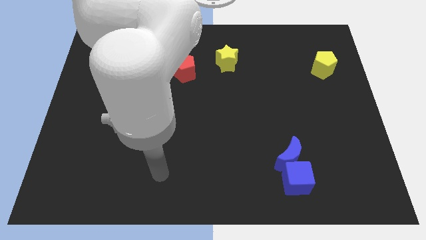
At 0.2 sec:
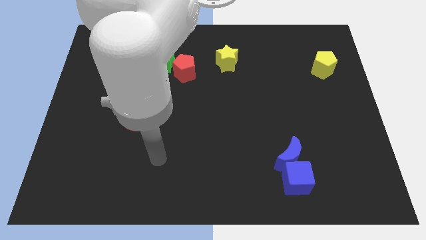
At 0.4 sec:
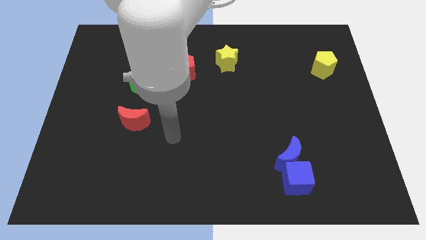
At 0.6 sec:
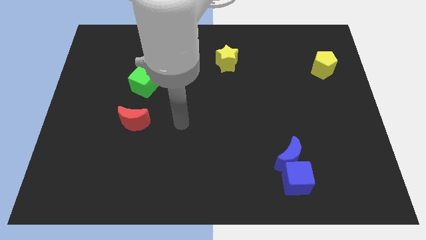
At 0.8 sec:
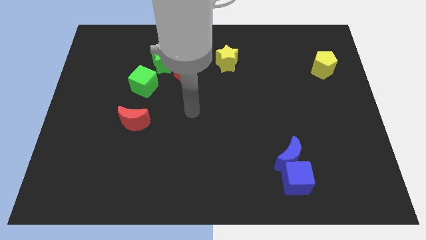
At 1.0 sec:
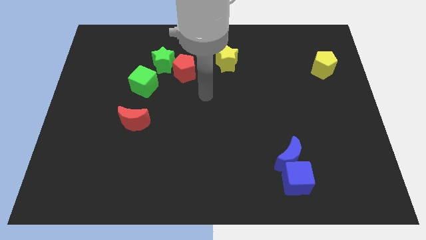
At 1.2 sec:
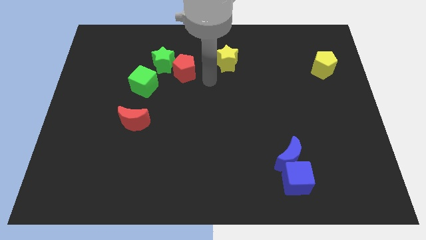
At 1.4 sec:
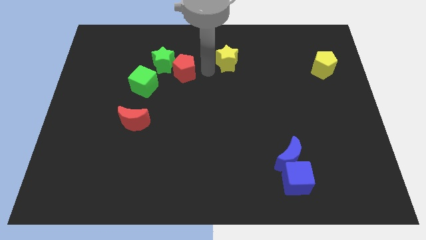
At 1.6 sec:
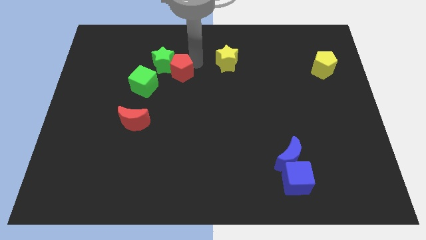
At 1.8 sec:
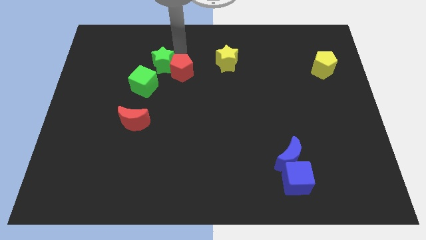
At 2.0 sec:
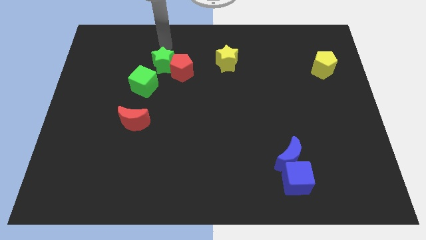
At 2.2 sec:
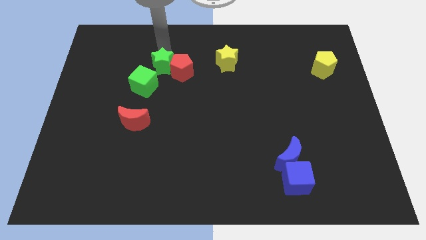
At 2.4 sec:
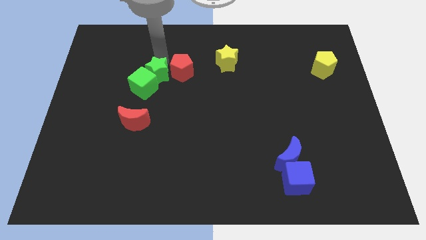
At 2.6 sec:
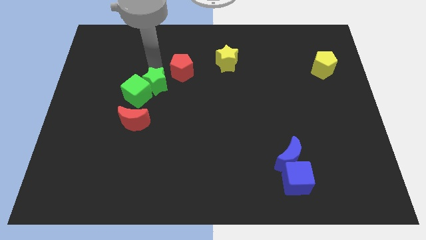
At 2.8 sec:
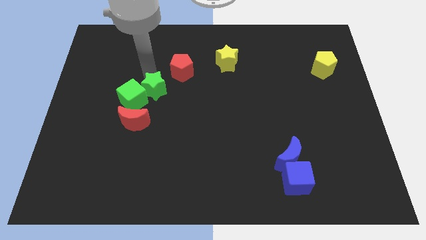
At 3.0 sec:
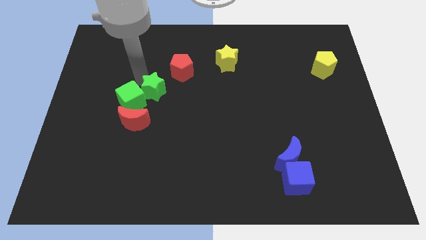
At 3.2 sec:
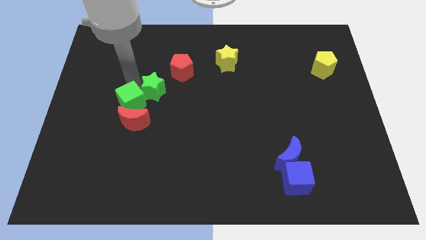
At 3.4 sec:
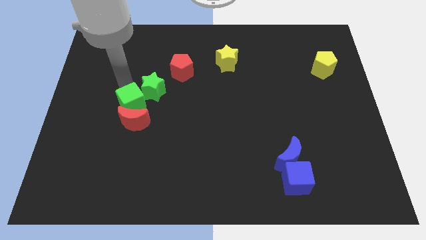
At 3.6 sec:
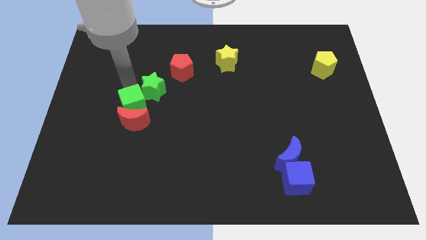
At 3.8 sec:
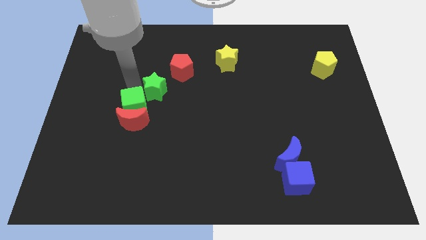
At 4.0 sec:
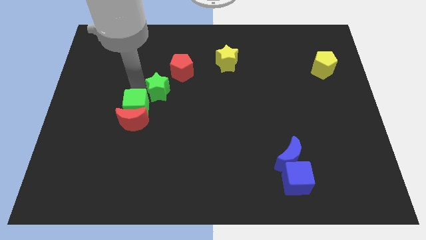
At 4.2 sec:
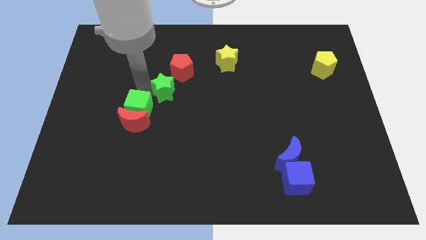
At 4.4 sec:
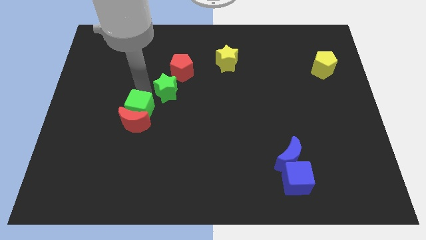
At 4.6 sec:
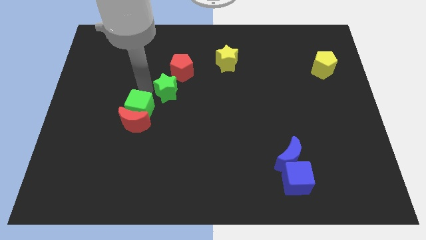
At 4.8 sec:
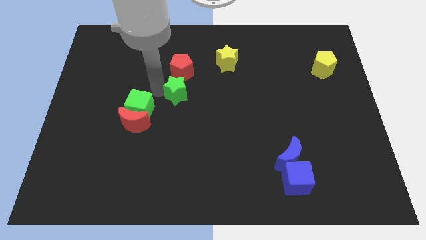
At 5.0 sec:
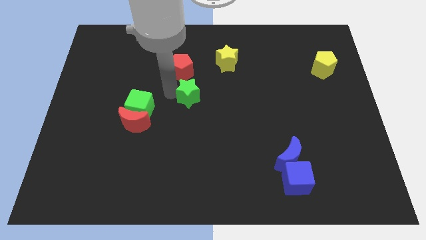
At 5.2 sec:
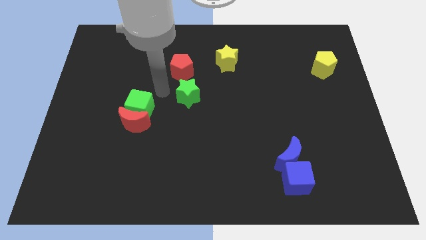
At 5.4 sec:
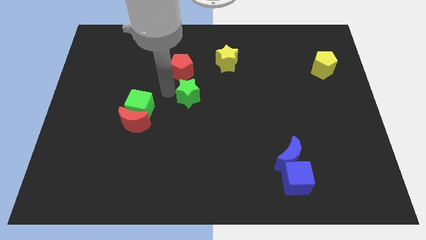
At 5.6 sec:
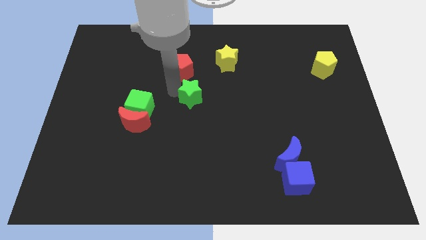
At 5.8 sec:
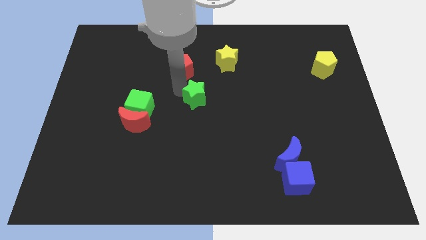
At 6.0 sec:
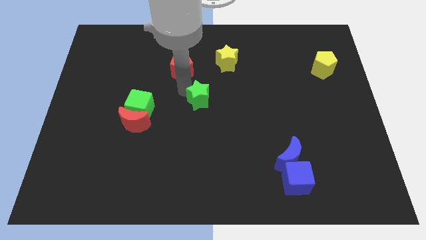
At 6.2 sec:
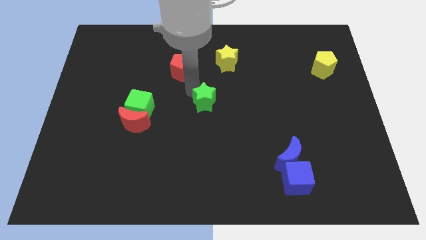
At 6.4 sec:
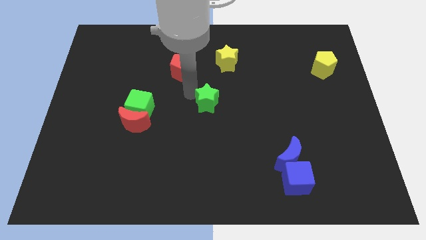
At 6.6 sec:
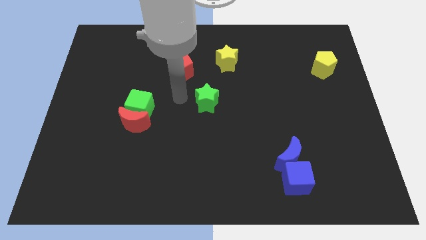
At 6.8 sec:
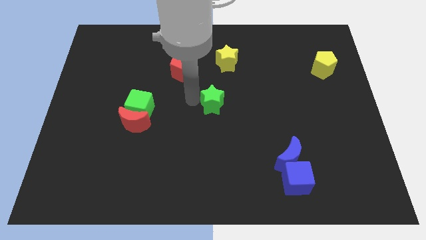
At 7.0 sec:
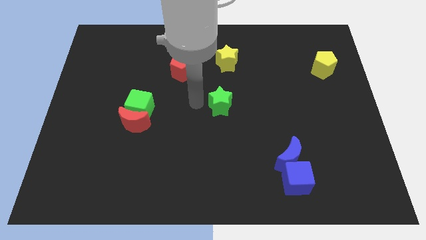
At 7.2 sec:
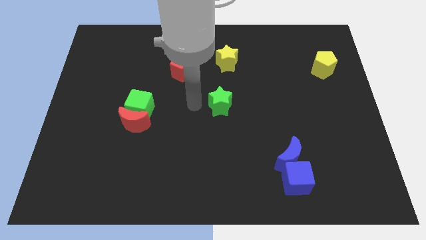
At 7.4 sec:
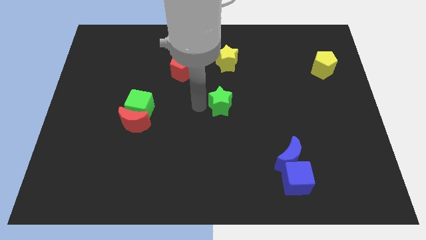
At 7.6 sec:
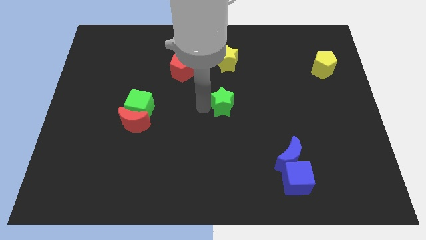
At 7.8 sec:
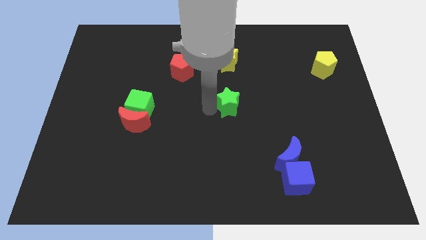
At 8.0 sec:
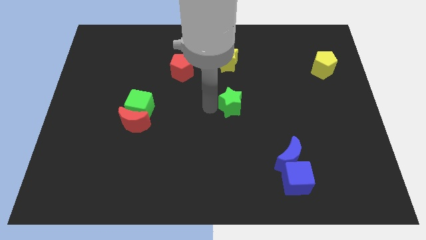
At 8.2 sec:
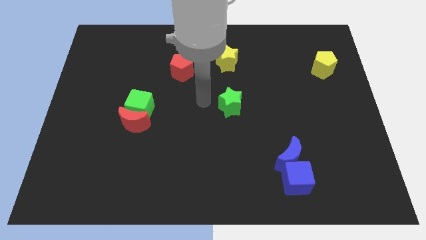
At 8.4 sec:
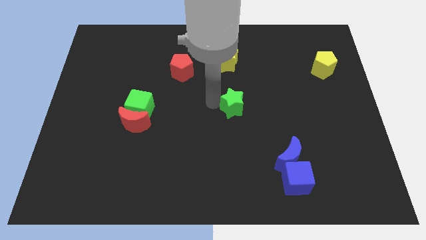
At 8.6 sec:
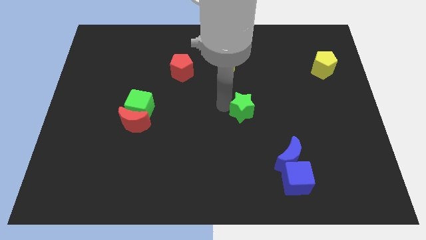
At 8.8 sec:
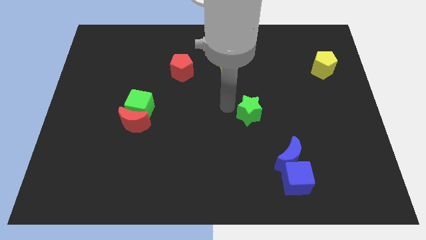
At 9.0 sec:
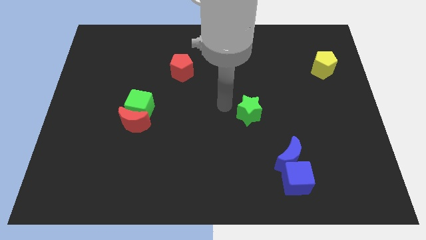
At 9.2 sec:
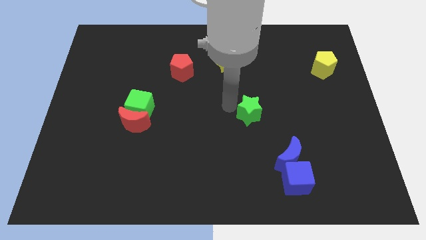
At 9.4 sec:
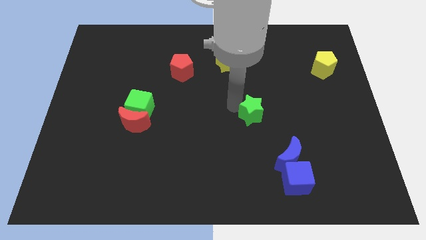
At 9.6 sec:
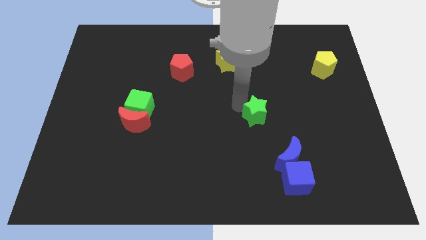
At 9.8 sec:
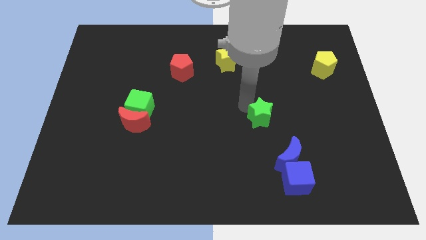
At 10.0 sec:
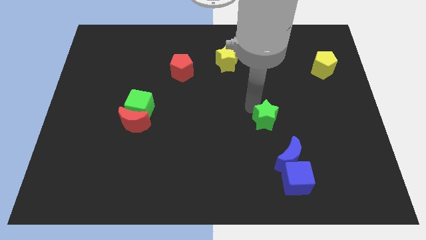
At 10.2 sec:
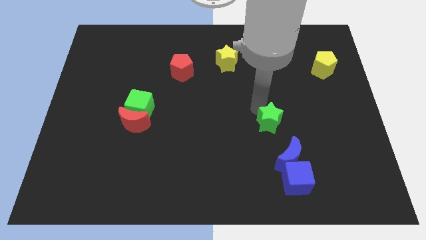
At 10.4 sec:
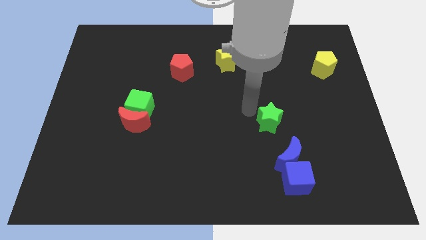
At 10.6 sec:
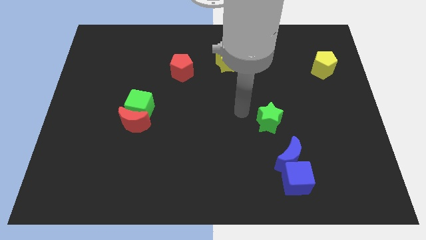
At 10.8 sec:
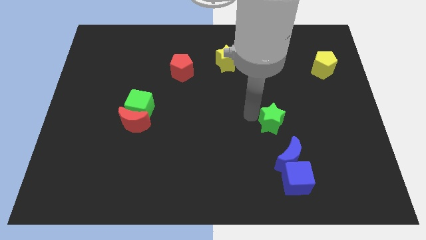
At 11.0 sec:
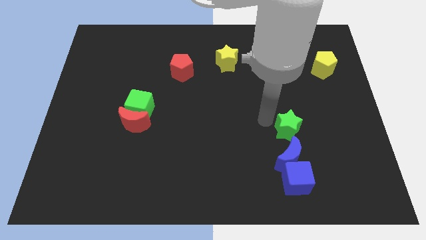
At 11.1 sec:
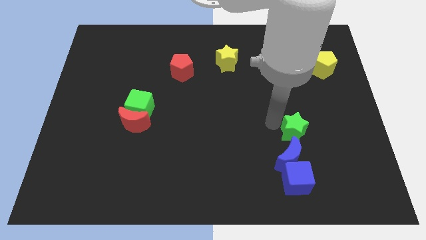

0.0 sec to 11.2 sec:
push the green star to the top right side of the blue moon

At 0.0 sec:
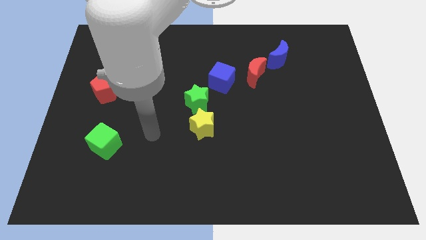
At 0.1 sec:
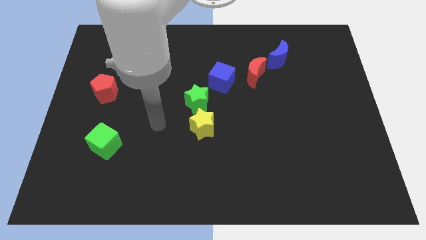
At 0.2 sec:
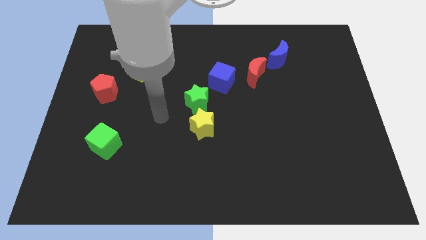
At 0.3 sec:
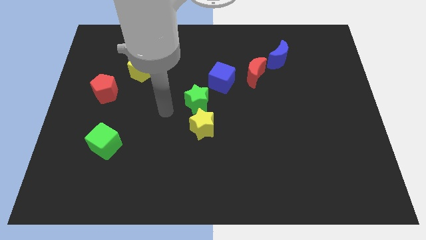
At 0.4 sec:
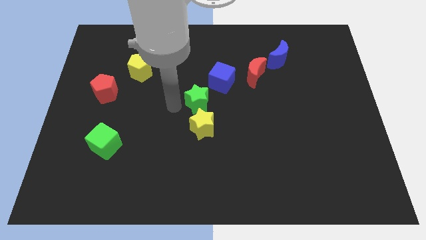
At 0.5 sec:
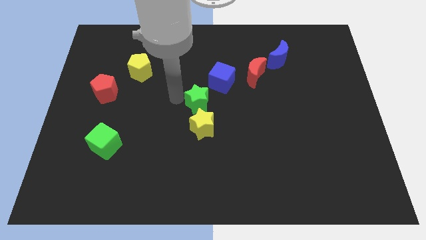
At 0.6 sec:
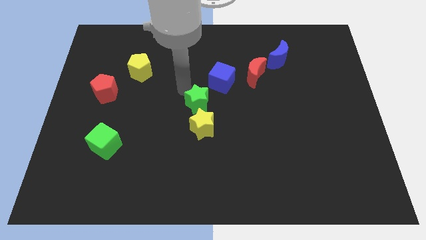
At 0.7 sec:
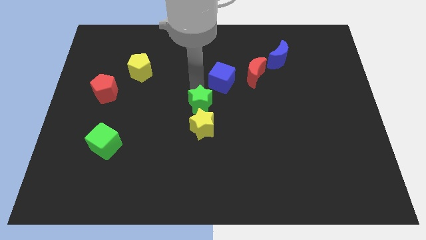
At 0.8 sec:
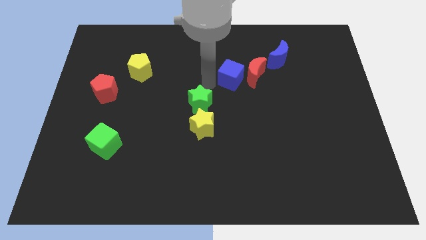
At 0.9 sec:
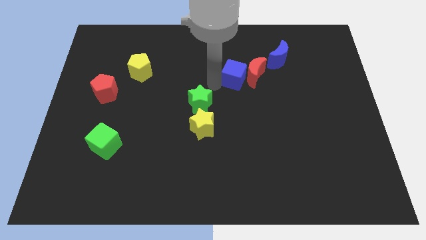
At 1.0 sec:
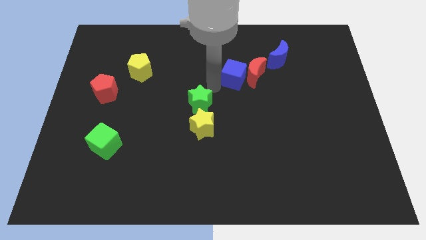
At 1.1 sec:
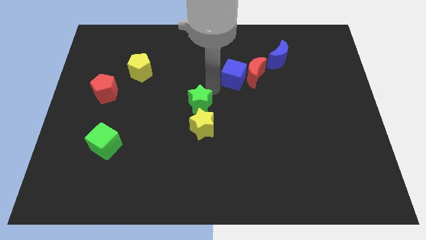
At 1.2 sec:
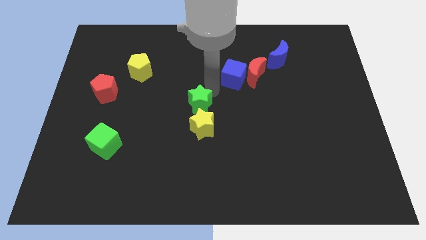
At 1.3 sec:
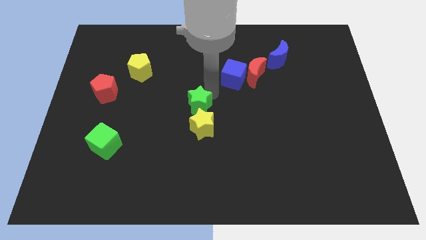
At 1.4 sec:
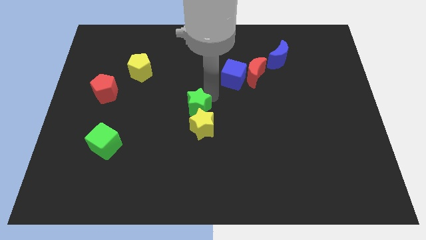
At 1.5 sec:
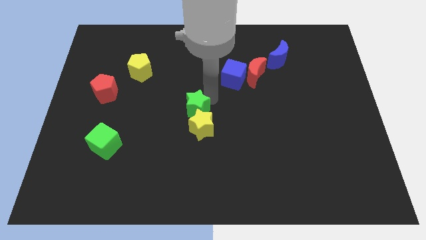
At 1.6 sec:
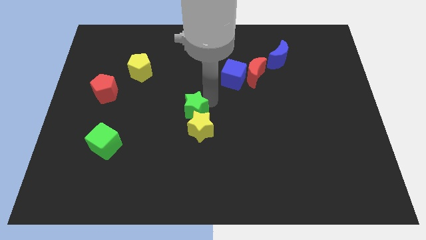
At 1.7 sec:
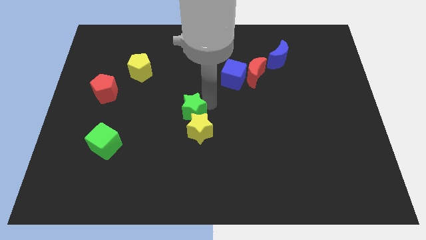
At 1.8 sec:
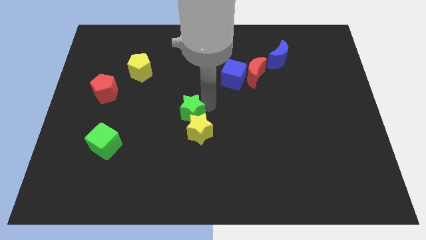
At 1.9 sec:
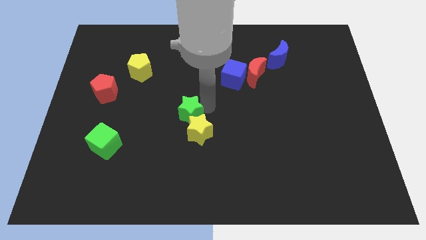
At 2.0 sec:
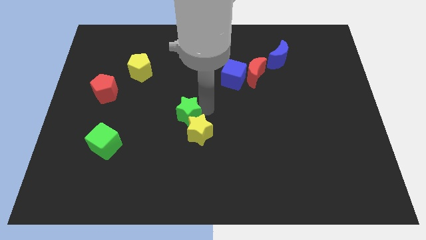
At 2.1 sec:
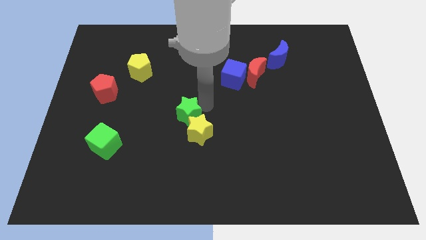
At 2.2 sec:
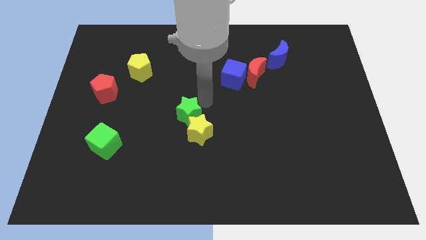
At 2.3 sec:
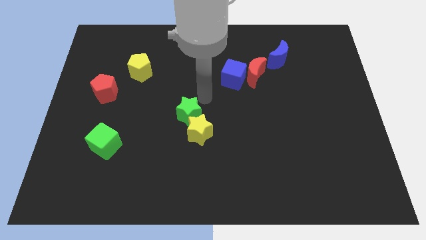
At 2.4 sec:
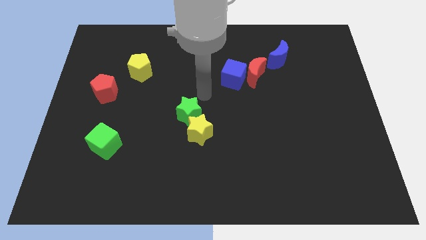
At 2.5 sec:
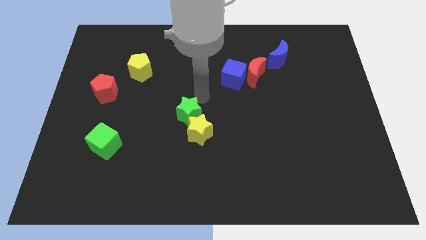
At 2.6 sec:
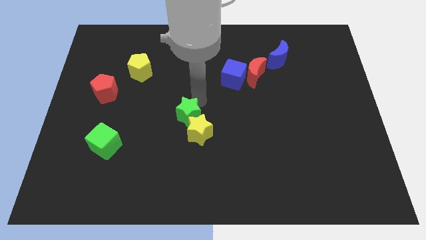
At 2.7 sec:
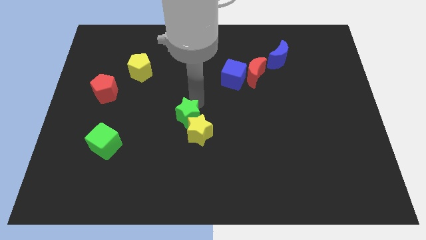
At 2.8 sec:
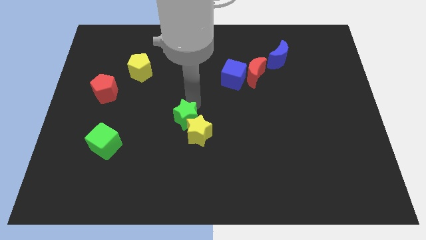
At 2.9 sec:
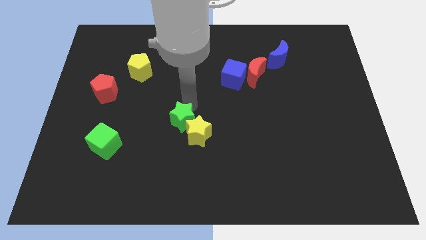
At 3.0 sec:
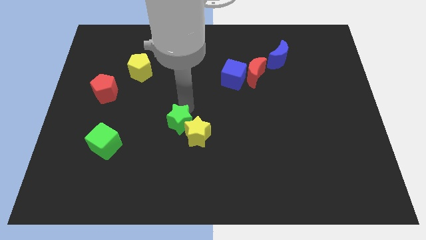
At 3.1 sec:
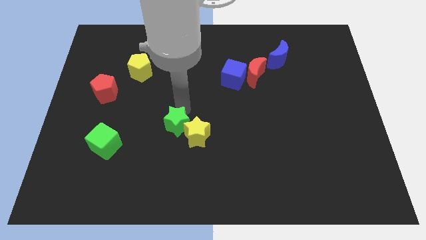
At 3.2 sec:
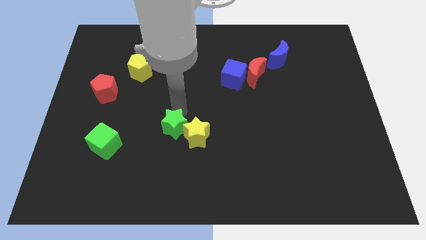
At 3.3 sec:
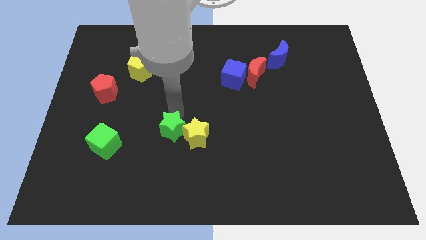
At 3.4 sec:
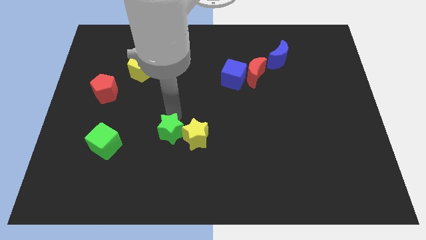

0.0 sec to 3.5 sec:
move the green star diagonally down and to the left of the yellow star
